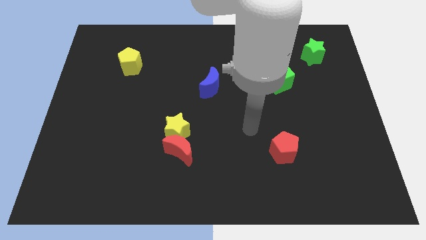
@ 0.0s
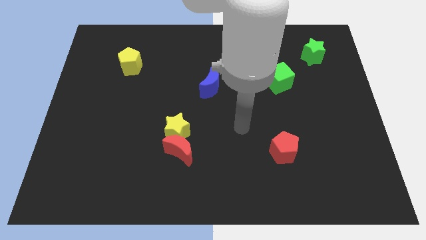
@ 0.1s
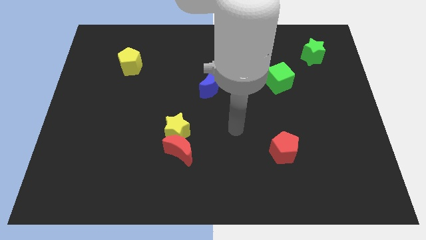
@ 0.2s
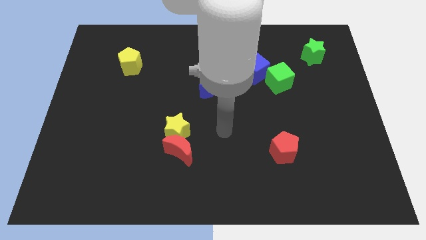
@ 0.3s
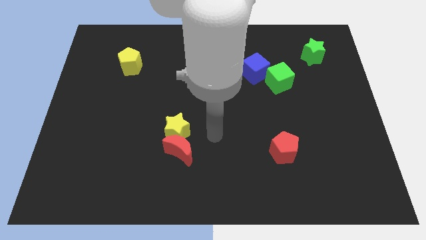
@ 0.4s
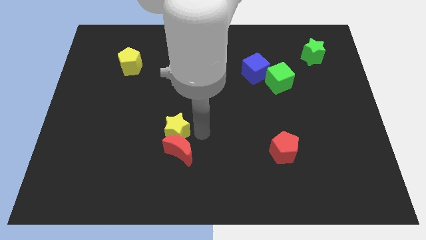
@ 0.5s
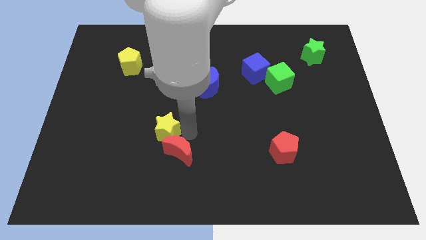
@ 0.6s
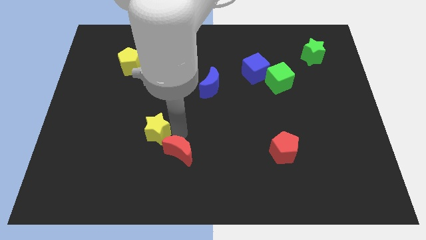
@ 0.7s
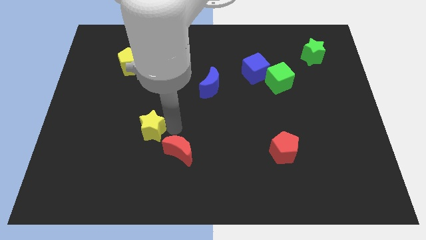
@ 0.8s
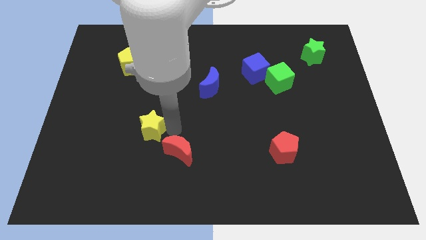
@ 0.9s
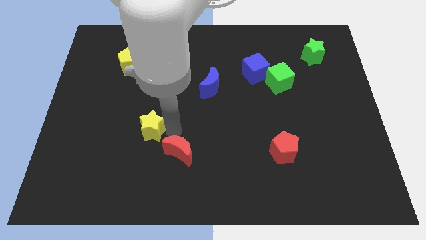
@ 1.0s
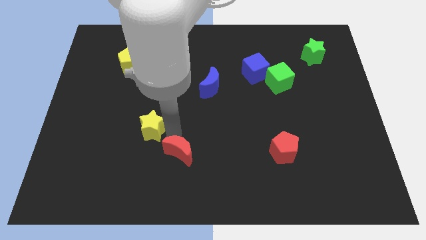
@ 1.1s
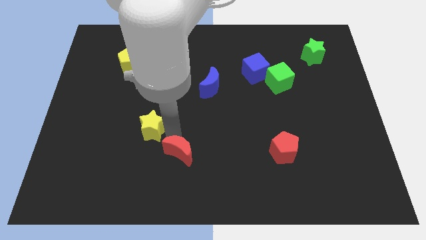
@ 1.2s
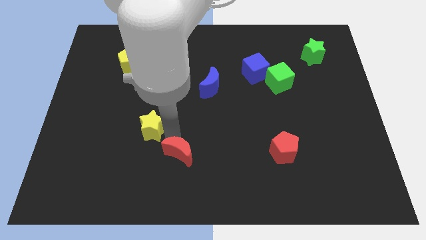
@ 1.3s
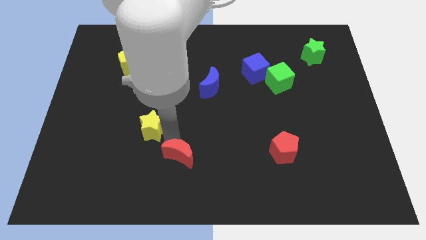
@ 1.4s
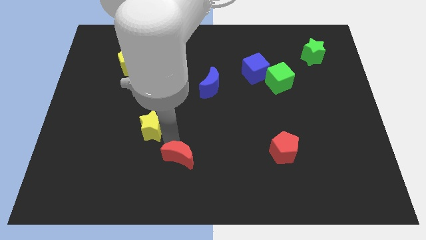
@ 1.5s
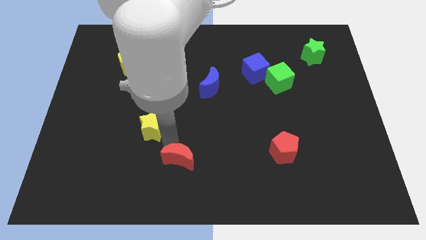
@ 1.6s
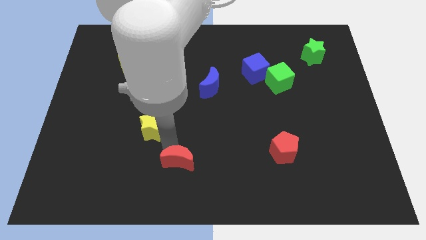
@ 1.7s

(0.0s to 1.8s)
move the red moon away from the yellow star

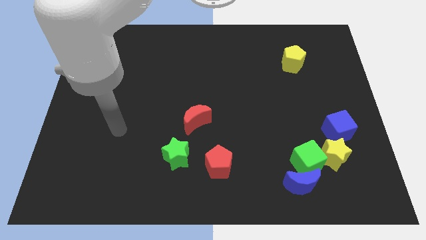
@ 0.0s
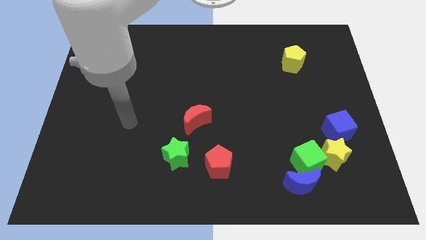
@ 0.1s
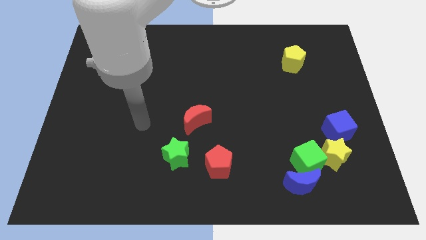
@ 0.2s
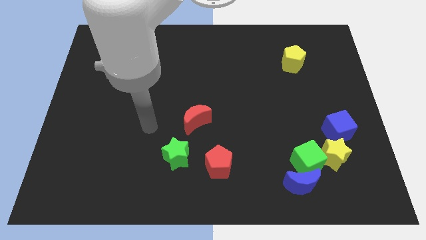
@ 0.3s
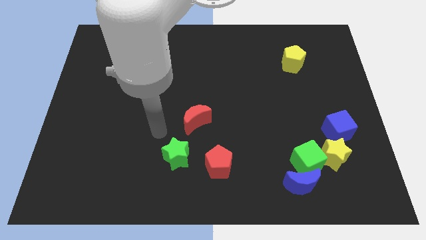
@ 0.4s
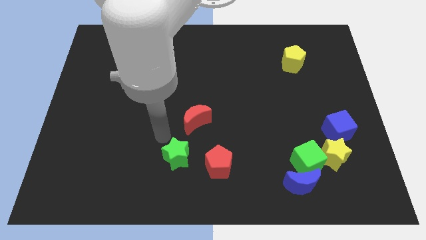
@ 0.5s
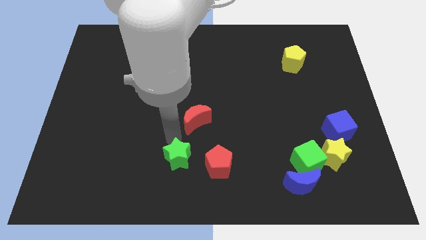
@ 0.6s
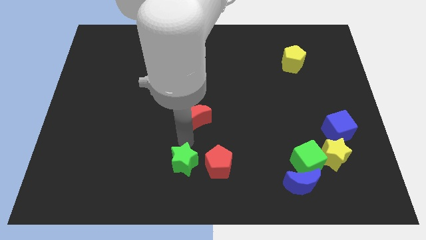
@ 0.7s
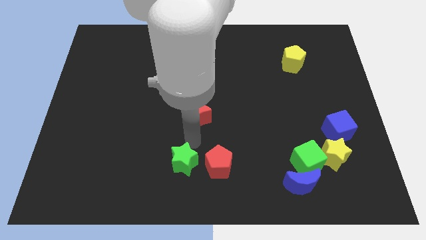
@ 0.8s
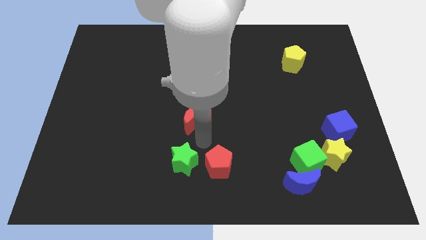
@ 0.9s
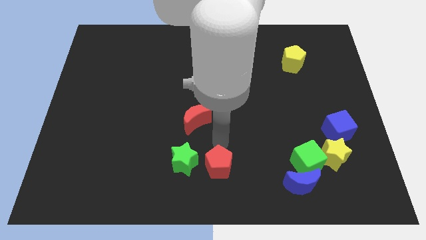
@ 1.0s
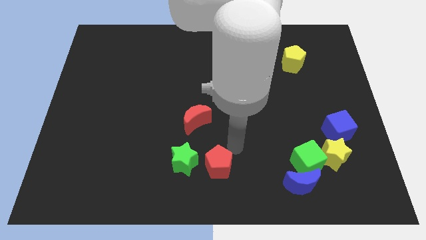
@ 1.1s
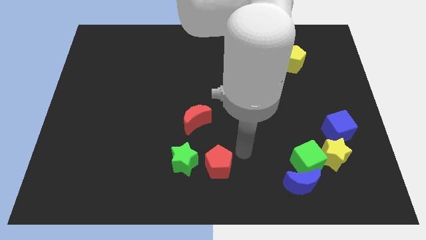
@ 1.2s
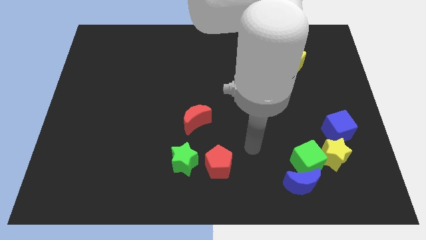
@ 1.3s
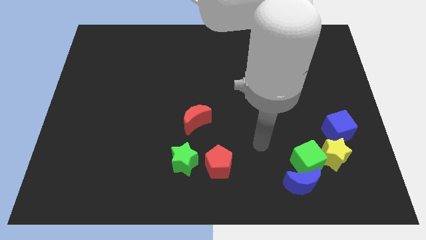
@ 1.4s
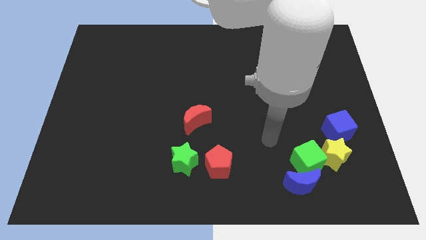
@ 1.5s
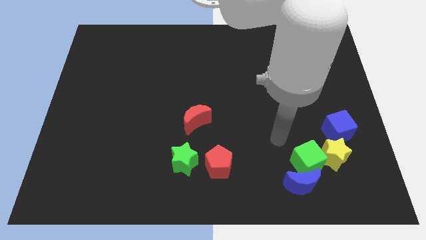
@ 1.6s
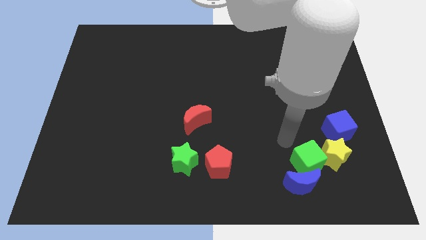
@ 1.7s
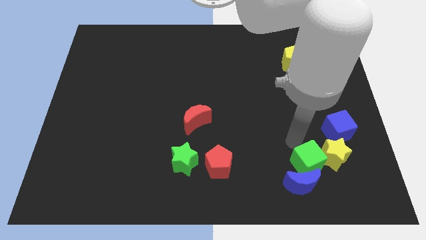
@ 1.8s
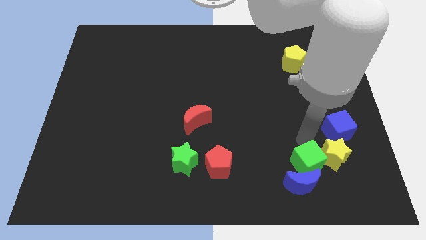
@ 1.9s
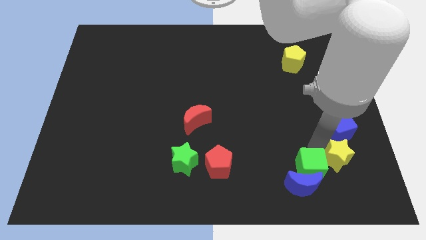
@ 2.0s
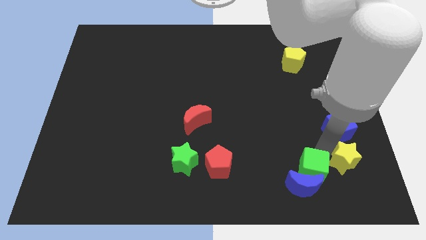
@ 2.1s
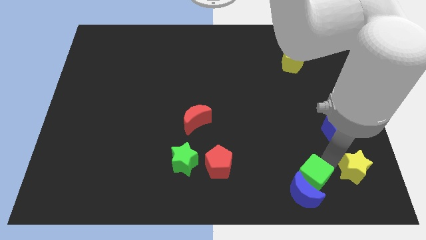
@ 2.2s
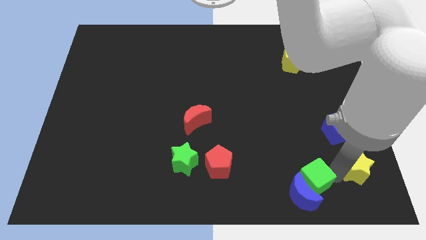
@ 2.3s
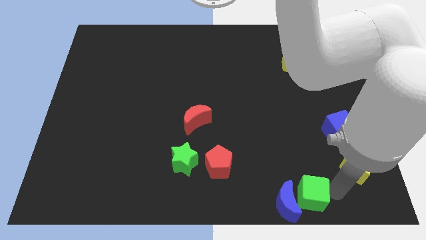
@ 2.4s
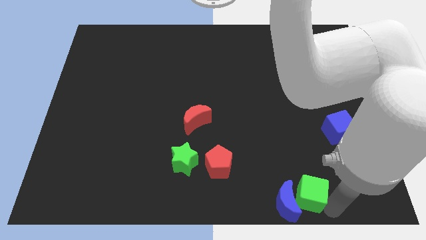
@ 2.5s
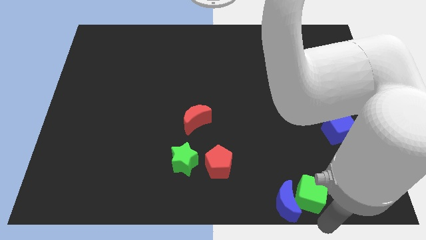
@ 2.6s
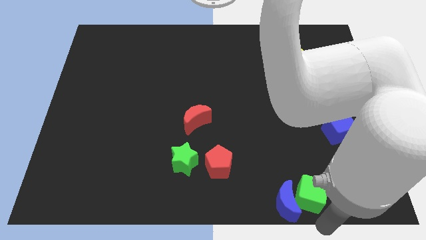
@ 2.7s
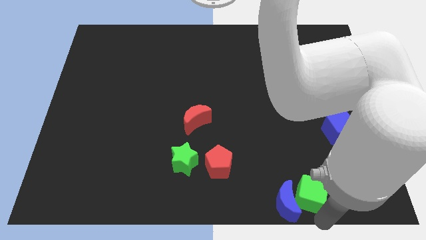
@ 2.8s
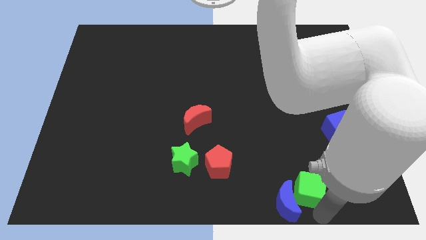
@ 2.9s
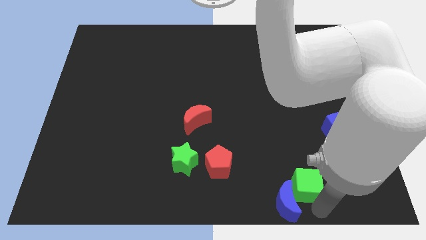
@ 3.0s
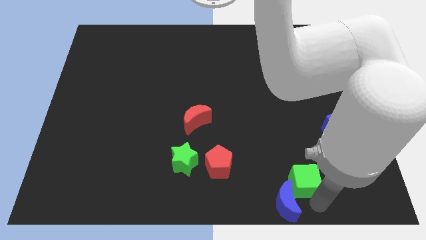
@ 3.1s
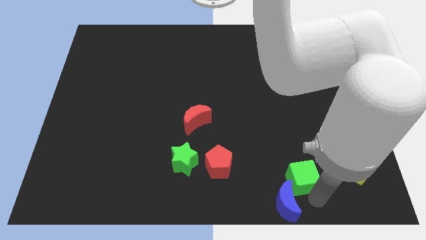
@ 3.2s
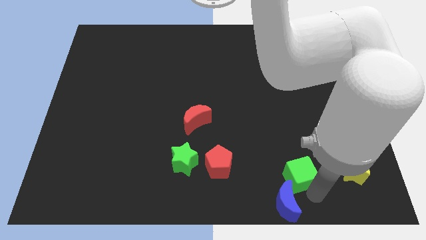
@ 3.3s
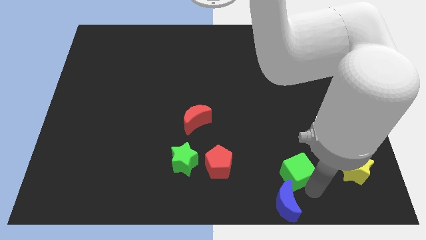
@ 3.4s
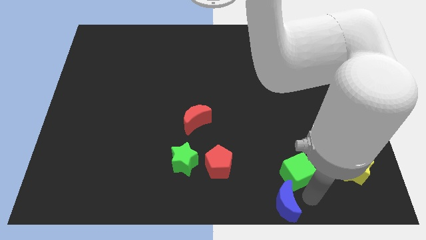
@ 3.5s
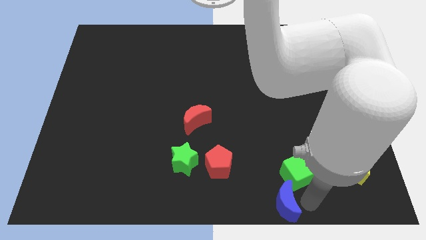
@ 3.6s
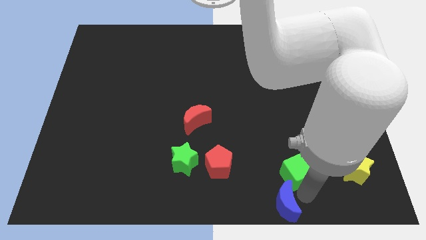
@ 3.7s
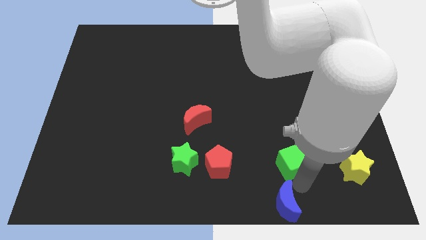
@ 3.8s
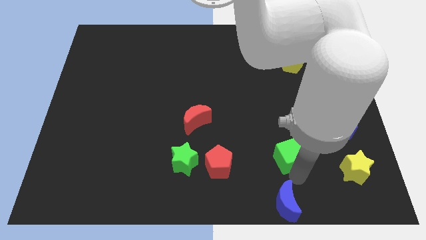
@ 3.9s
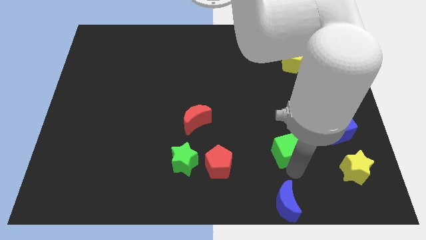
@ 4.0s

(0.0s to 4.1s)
move the green cube away from the blue moon and yellow star

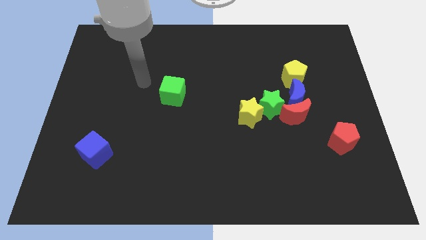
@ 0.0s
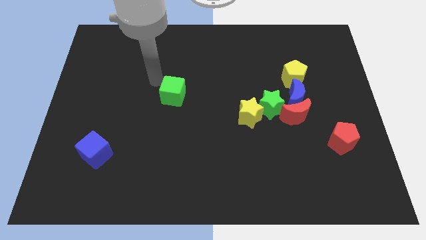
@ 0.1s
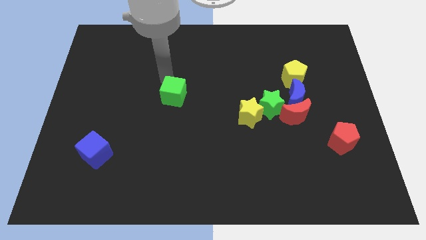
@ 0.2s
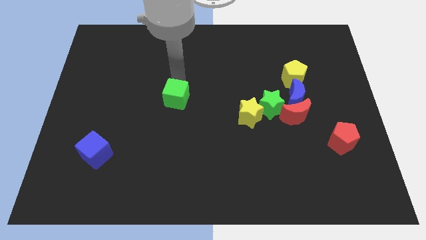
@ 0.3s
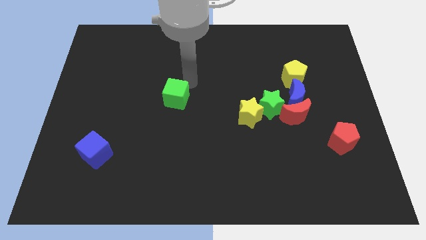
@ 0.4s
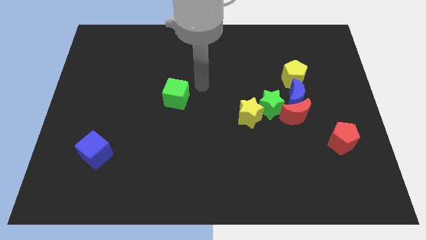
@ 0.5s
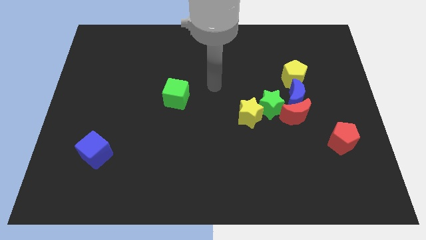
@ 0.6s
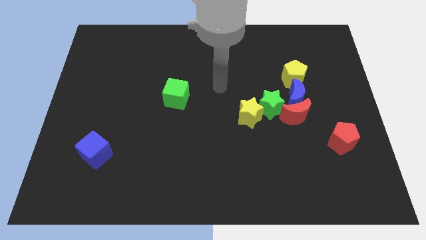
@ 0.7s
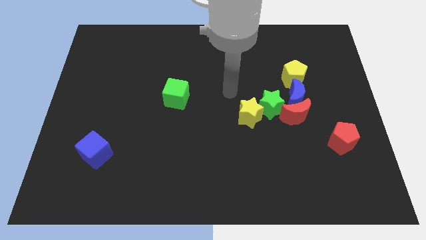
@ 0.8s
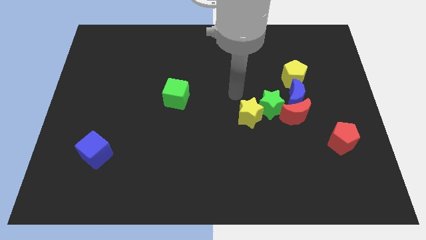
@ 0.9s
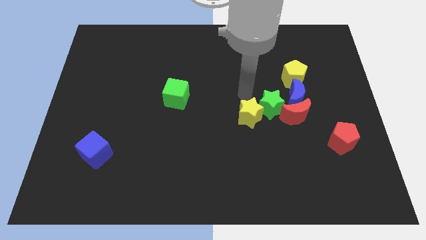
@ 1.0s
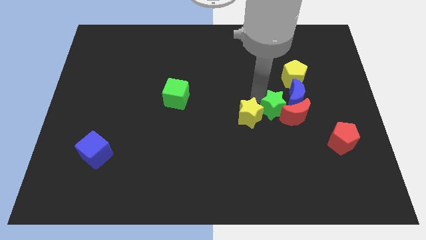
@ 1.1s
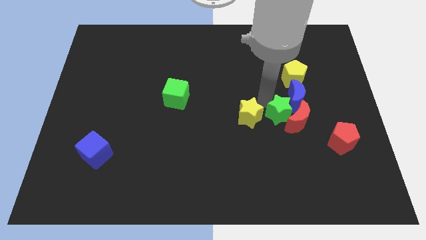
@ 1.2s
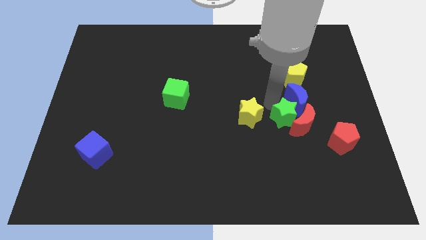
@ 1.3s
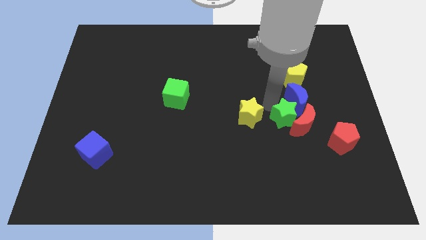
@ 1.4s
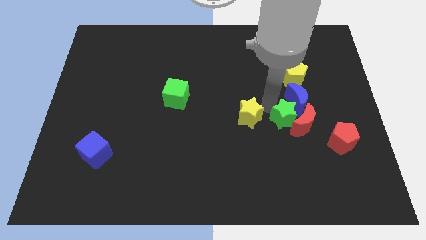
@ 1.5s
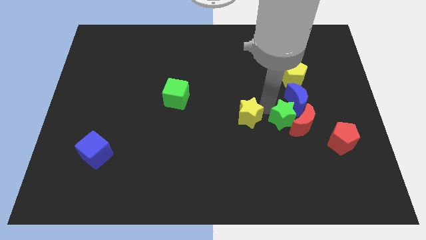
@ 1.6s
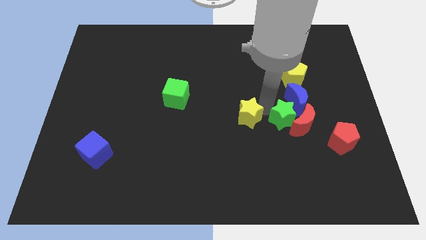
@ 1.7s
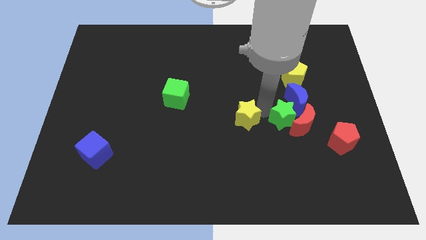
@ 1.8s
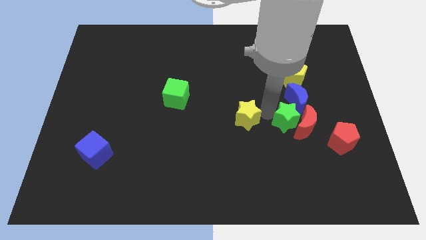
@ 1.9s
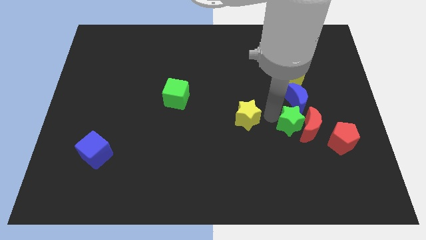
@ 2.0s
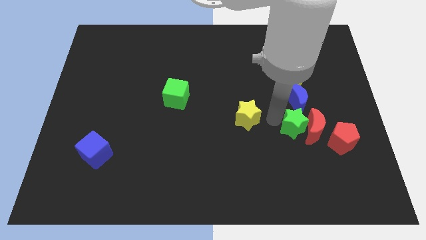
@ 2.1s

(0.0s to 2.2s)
pull the yellow star apart from the green star

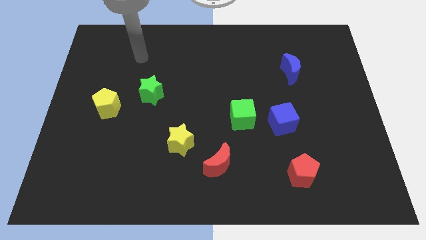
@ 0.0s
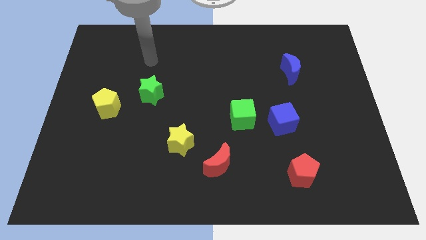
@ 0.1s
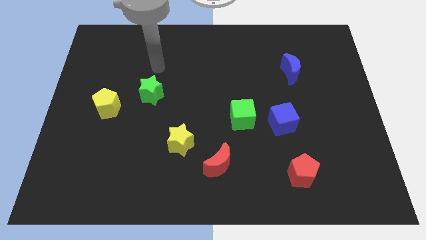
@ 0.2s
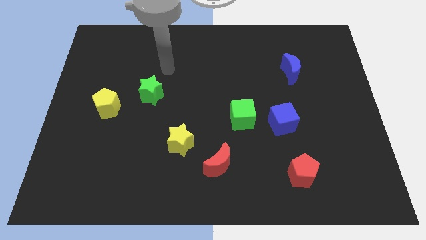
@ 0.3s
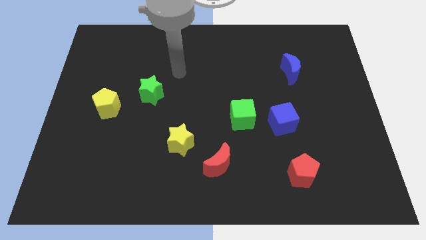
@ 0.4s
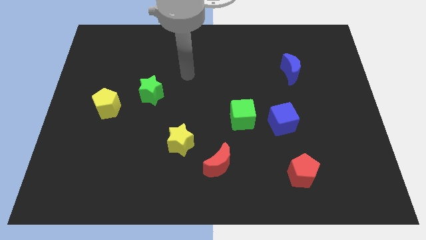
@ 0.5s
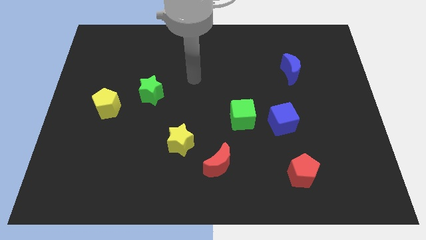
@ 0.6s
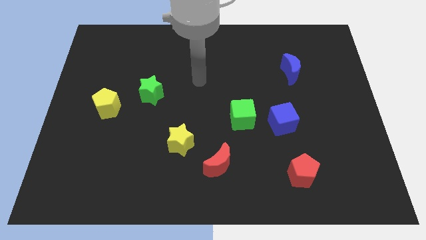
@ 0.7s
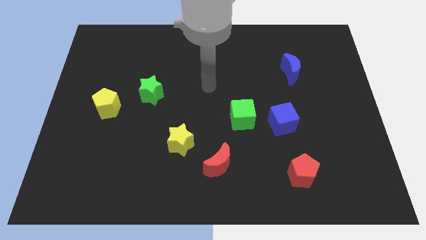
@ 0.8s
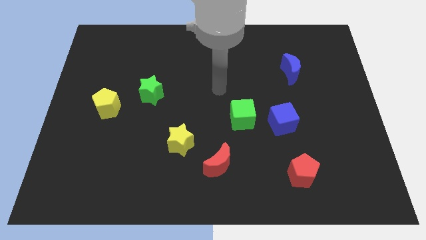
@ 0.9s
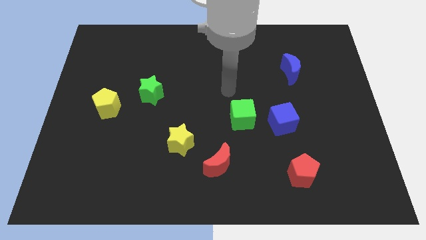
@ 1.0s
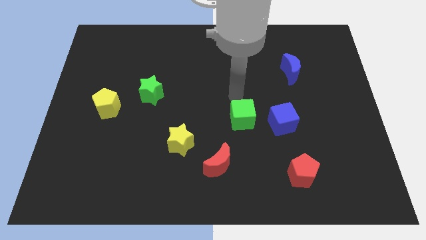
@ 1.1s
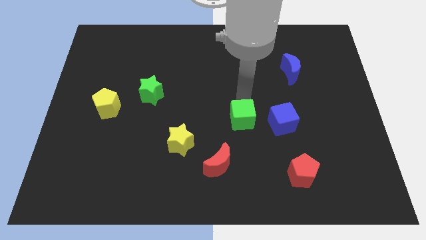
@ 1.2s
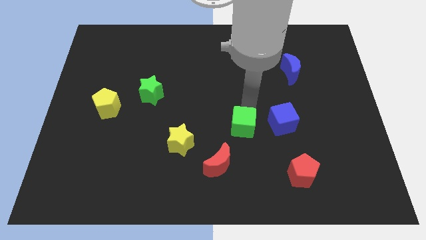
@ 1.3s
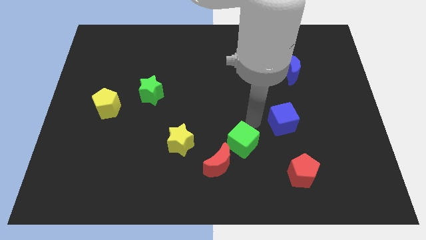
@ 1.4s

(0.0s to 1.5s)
separate the blue cube from the green cube

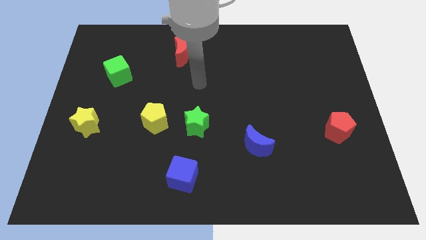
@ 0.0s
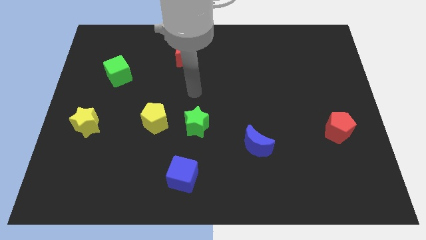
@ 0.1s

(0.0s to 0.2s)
pull the green star apart from the yellow pentagon
